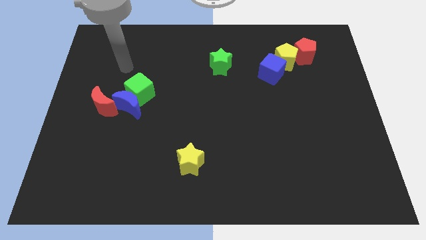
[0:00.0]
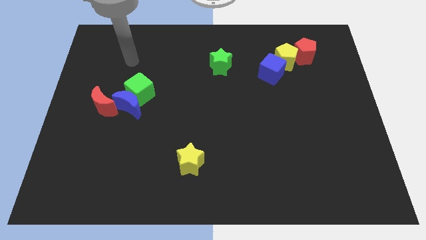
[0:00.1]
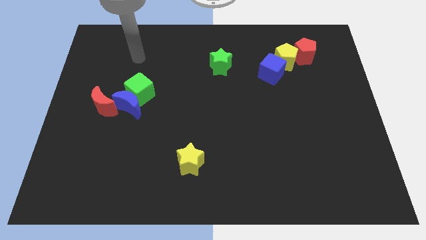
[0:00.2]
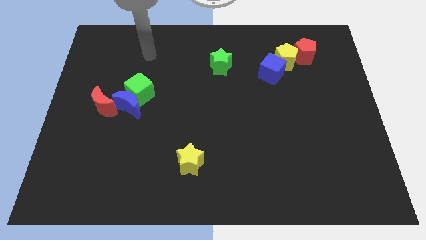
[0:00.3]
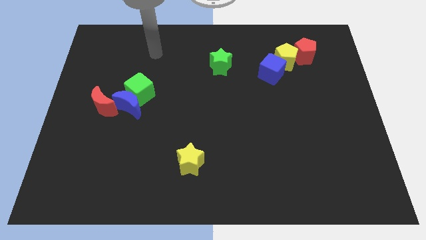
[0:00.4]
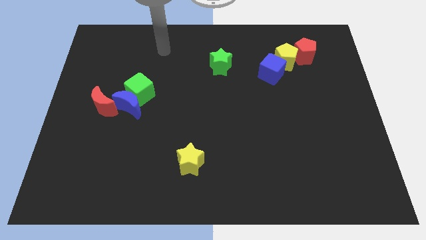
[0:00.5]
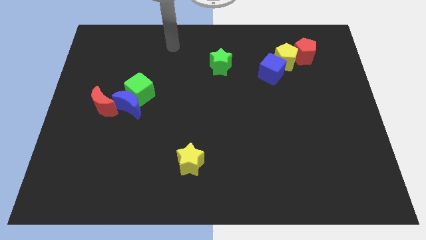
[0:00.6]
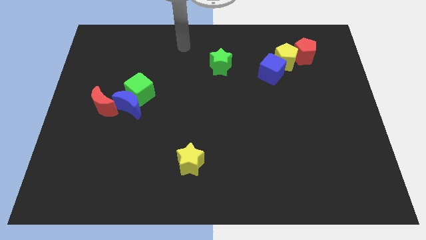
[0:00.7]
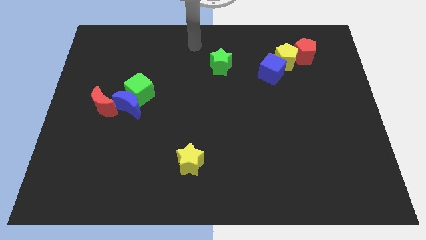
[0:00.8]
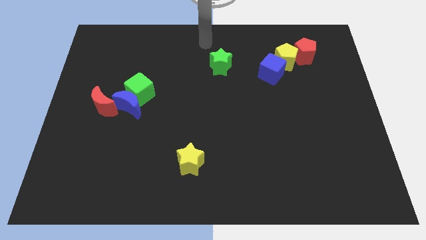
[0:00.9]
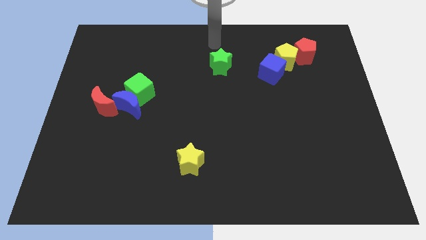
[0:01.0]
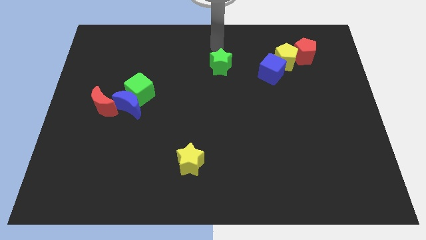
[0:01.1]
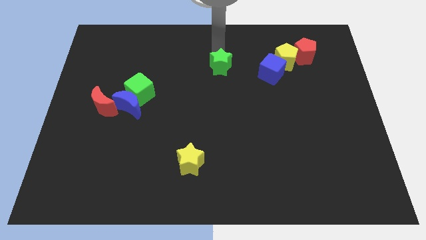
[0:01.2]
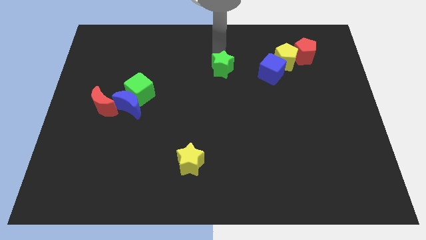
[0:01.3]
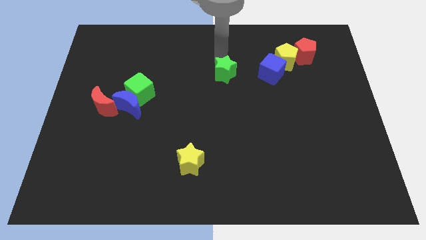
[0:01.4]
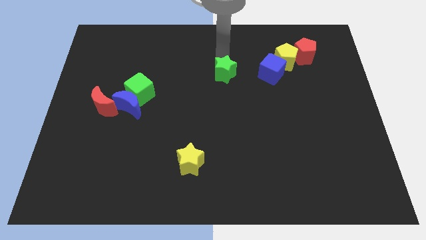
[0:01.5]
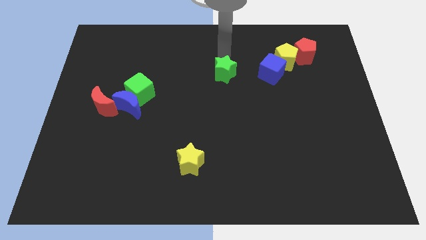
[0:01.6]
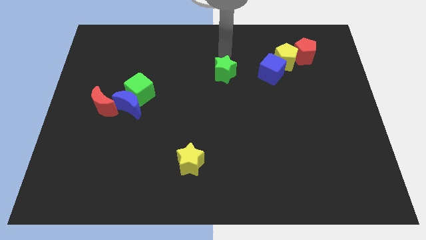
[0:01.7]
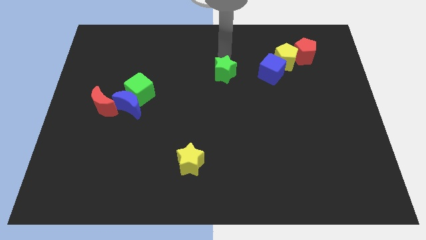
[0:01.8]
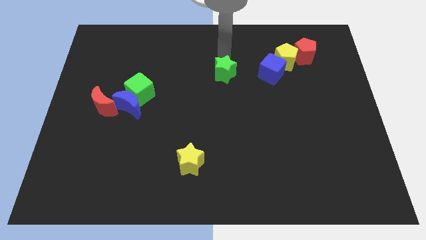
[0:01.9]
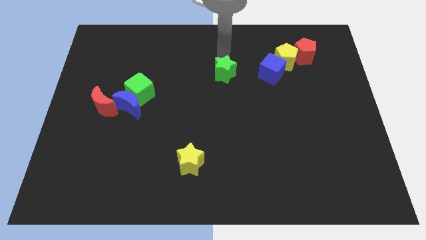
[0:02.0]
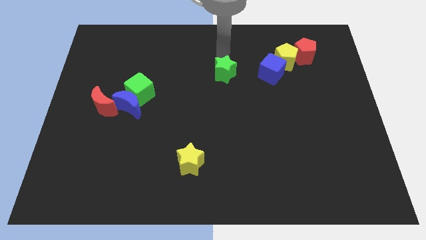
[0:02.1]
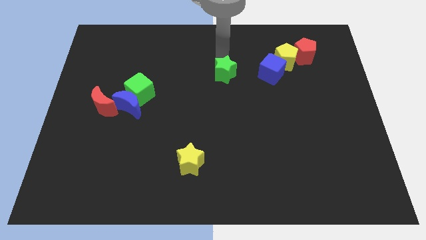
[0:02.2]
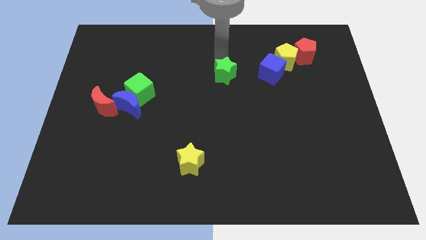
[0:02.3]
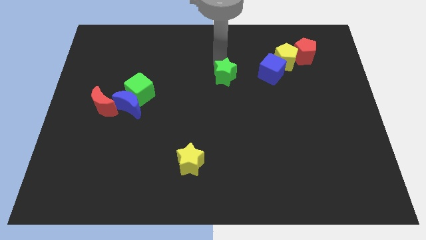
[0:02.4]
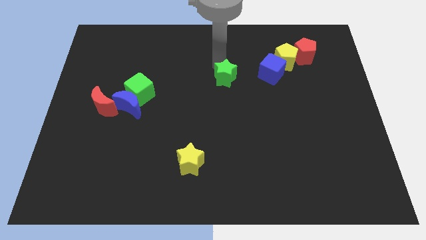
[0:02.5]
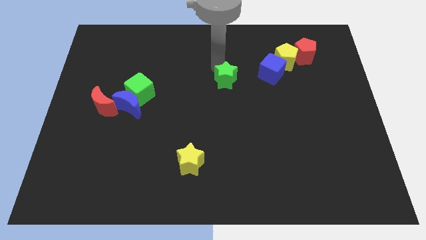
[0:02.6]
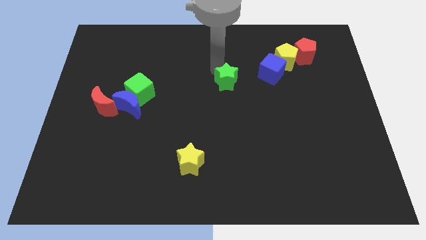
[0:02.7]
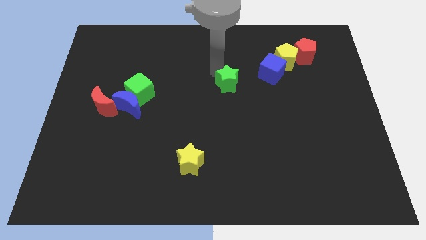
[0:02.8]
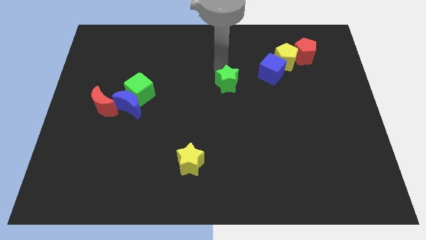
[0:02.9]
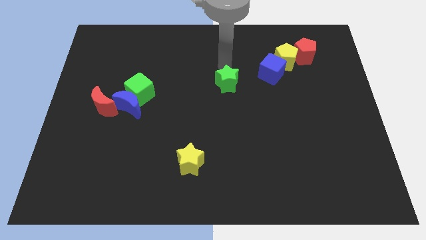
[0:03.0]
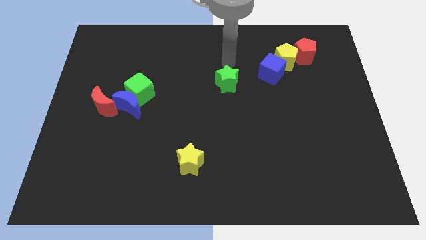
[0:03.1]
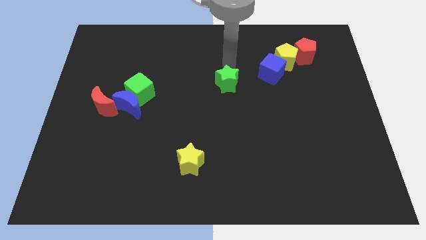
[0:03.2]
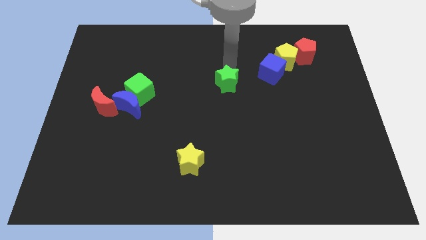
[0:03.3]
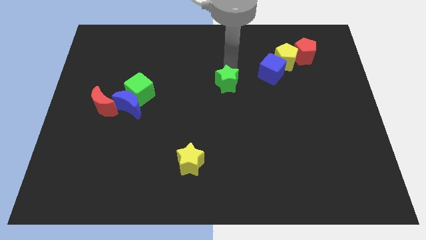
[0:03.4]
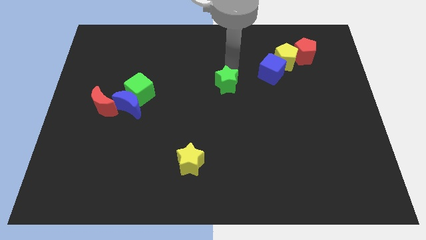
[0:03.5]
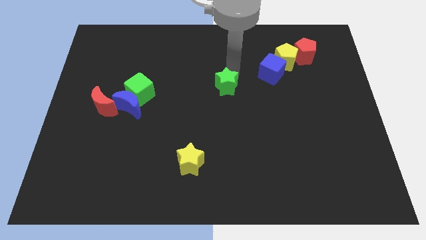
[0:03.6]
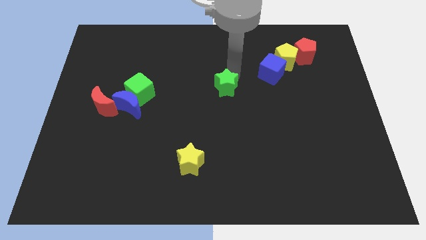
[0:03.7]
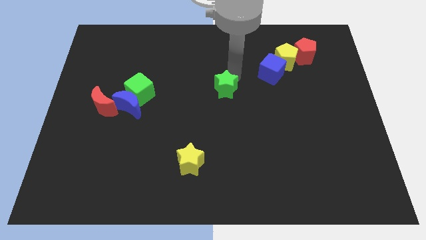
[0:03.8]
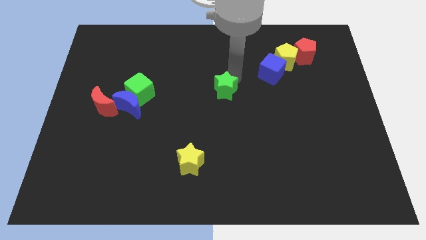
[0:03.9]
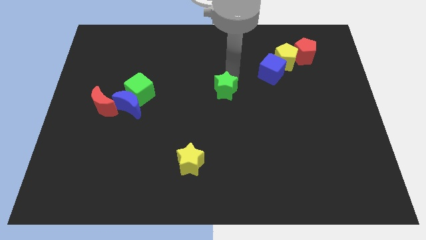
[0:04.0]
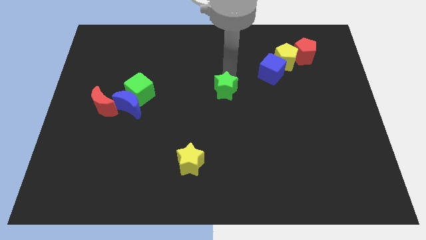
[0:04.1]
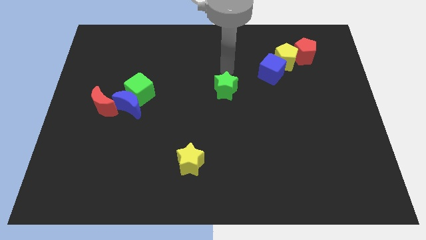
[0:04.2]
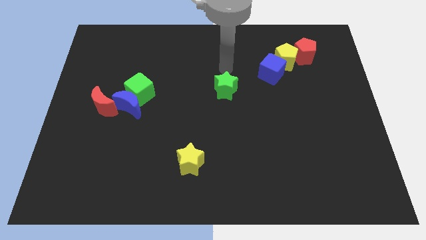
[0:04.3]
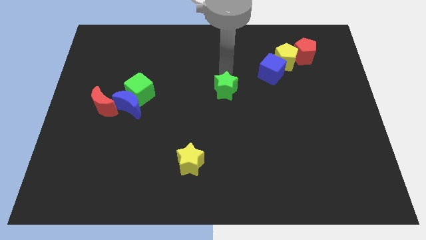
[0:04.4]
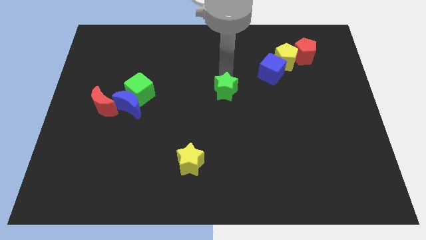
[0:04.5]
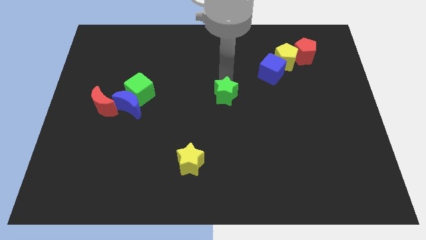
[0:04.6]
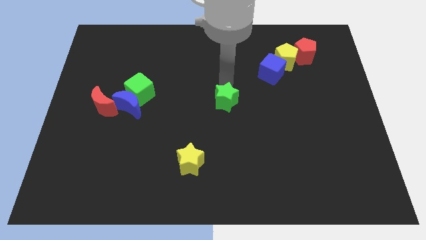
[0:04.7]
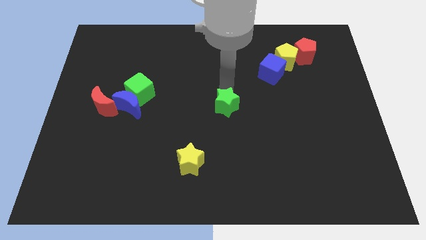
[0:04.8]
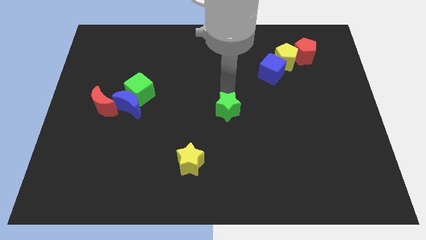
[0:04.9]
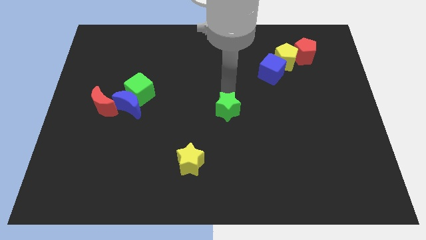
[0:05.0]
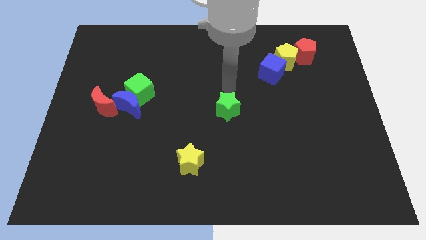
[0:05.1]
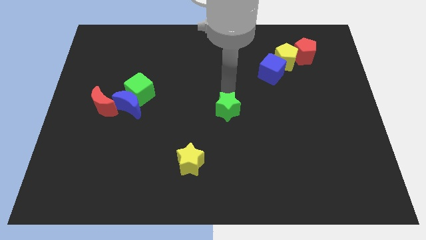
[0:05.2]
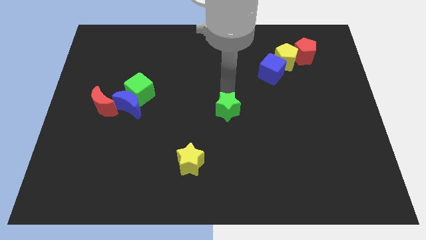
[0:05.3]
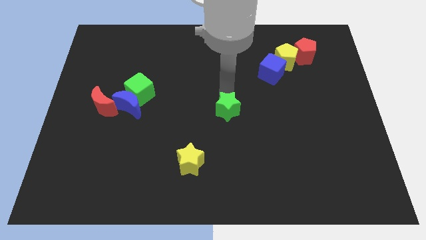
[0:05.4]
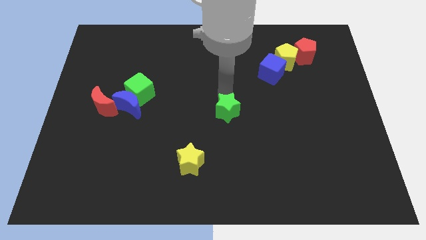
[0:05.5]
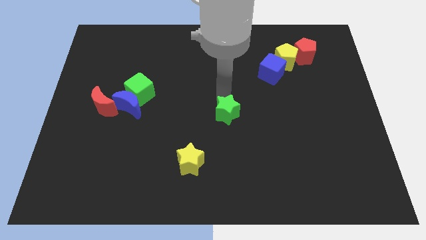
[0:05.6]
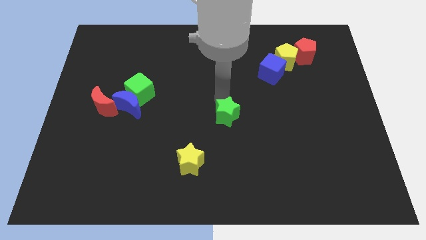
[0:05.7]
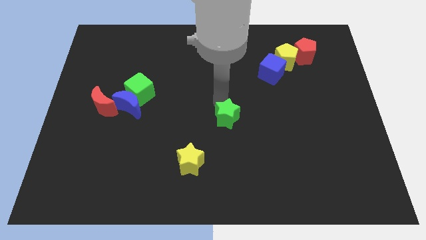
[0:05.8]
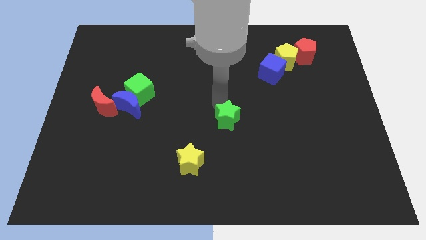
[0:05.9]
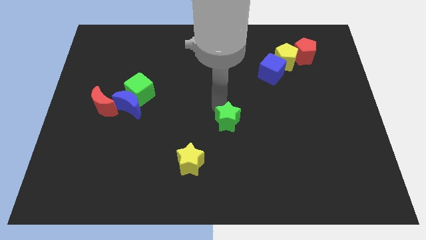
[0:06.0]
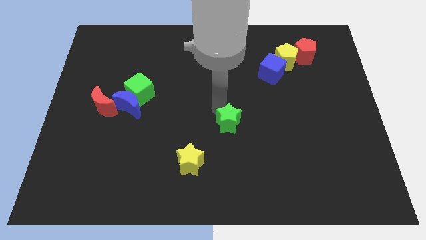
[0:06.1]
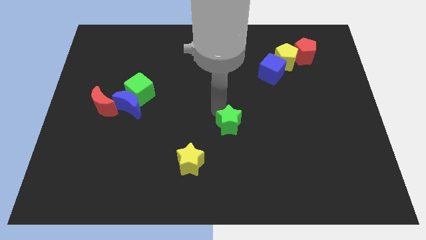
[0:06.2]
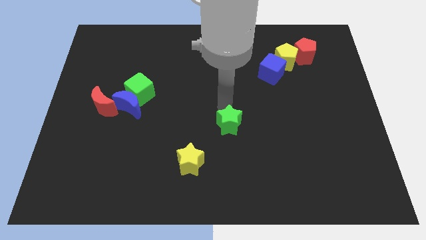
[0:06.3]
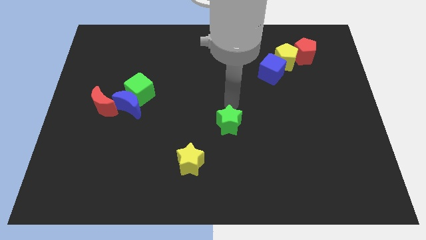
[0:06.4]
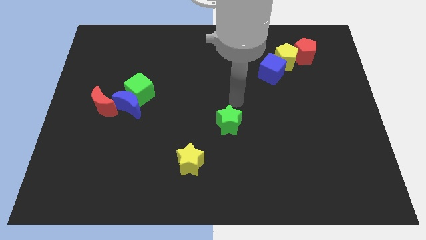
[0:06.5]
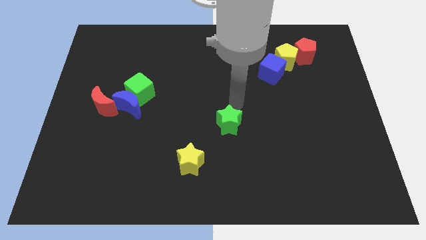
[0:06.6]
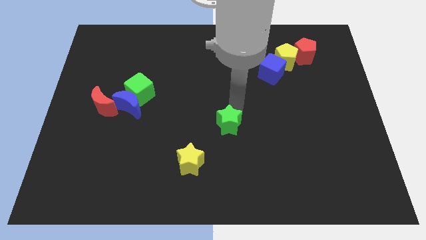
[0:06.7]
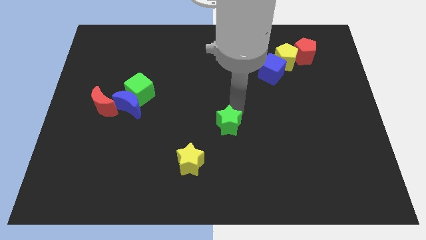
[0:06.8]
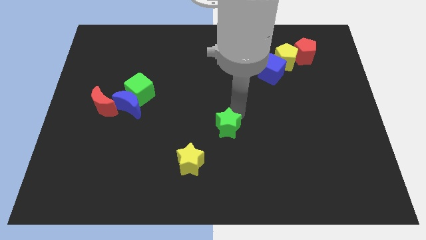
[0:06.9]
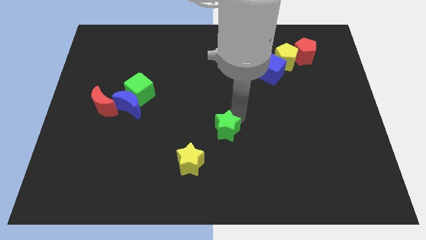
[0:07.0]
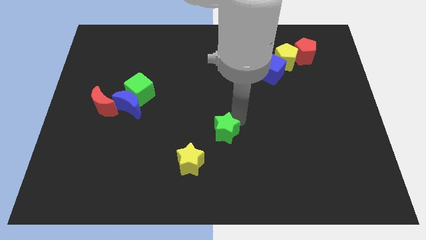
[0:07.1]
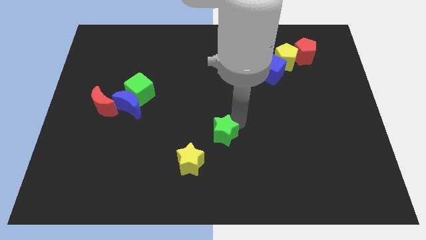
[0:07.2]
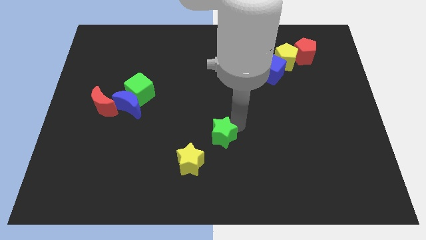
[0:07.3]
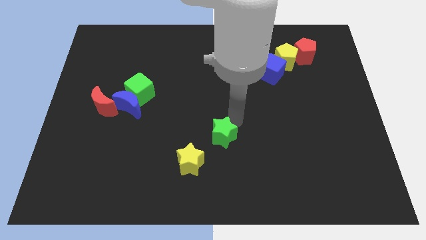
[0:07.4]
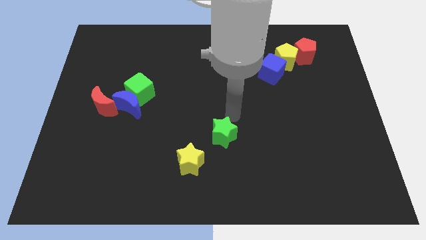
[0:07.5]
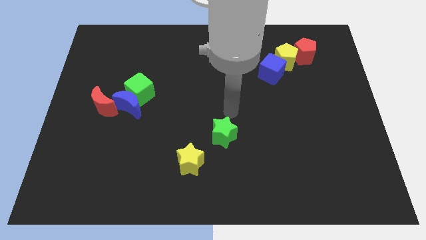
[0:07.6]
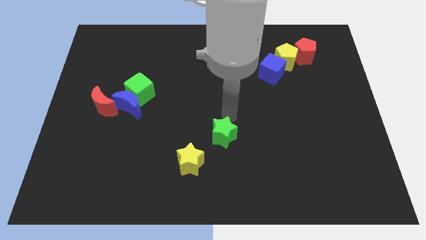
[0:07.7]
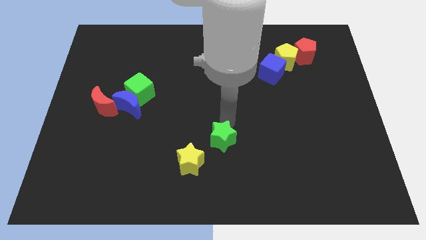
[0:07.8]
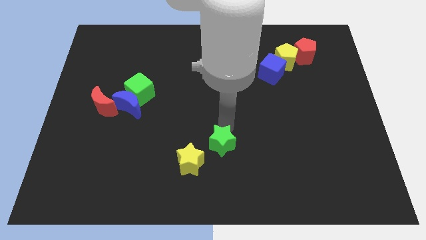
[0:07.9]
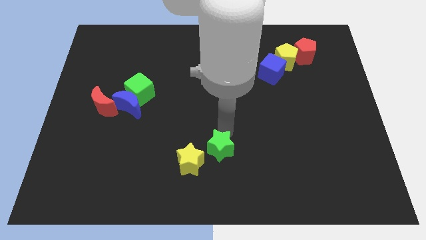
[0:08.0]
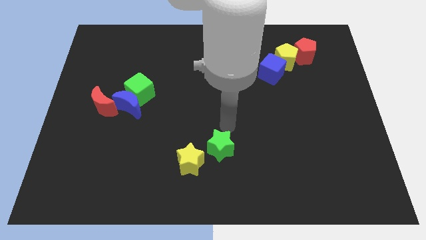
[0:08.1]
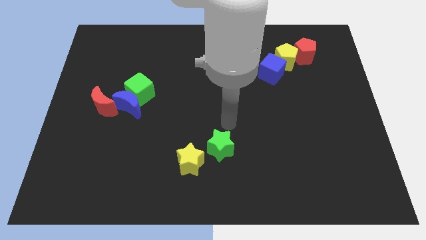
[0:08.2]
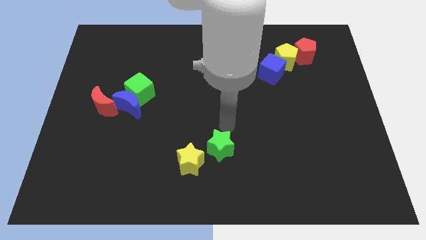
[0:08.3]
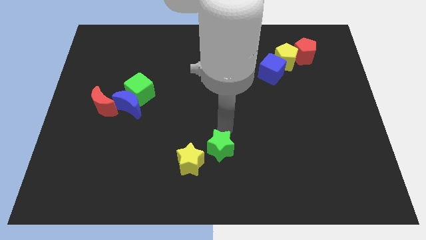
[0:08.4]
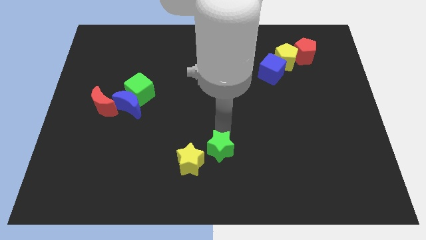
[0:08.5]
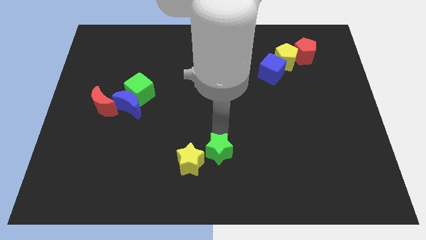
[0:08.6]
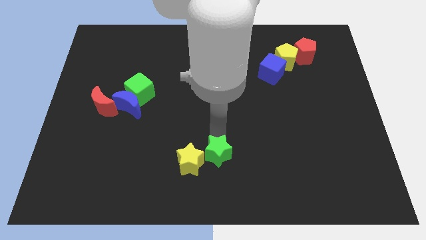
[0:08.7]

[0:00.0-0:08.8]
slide the green star to the bottom side
